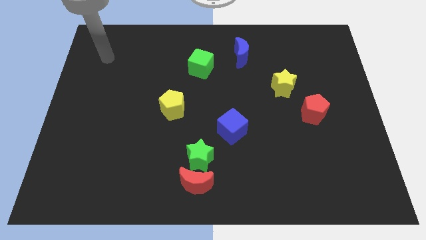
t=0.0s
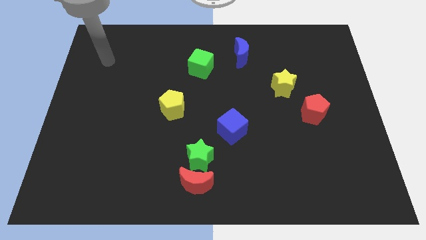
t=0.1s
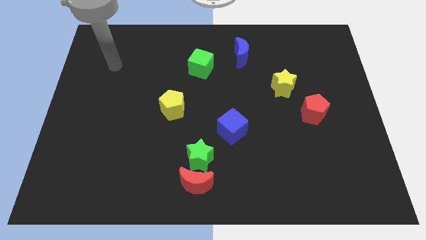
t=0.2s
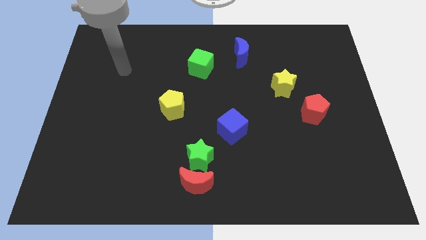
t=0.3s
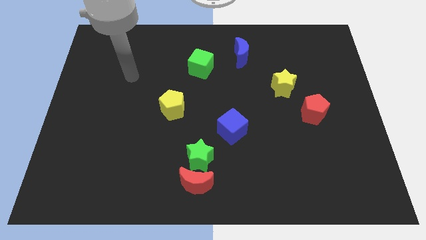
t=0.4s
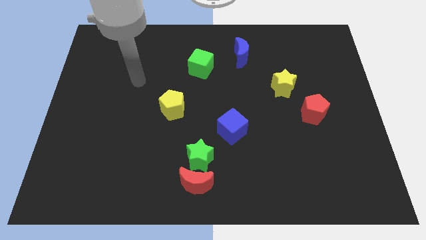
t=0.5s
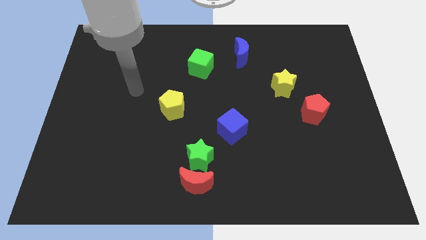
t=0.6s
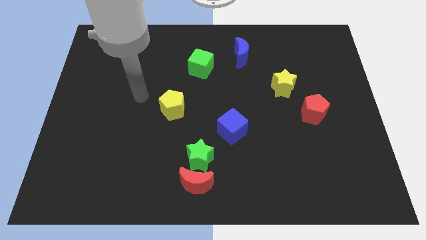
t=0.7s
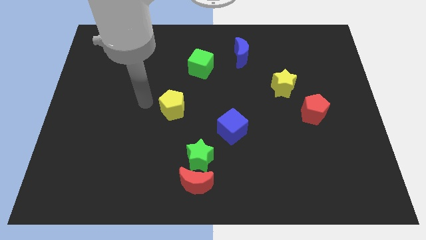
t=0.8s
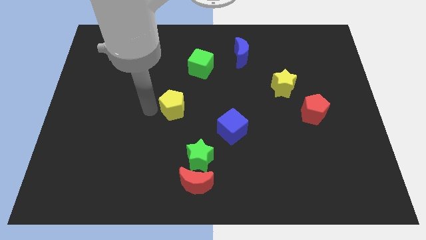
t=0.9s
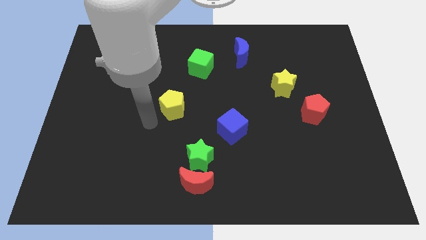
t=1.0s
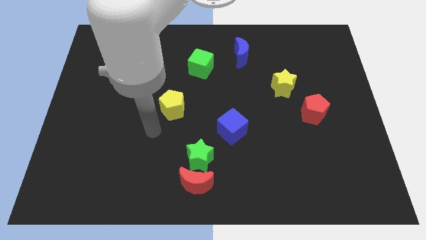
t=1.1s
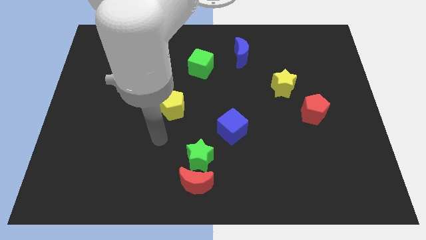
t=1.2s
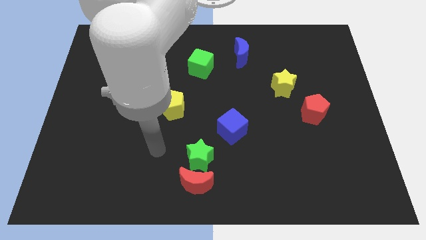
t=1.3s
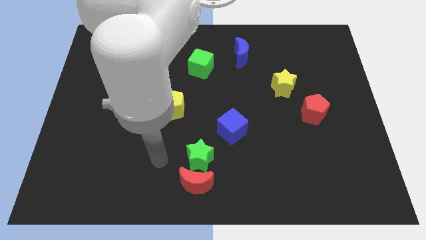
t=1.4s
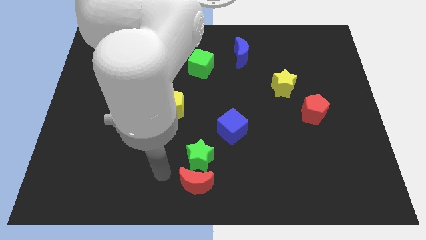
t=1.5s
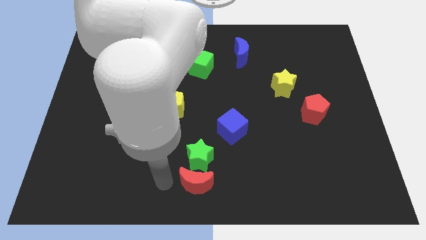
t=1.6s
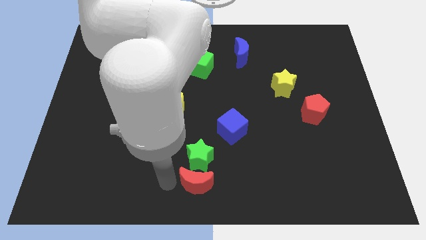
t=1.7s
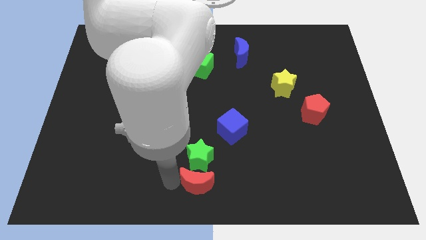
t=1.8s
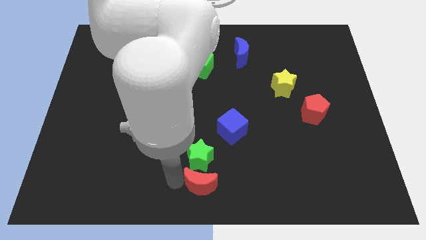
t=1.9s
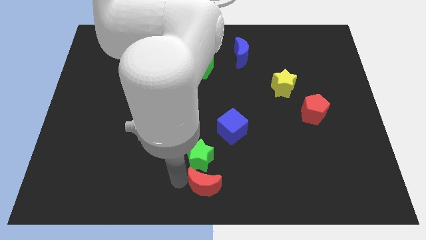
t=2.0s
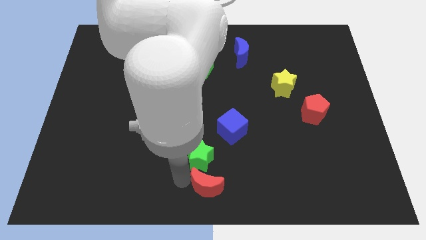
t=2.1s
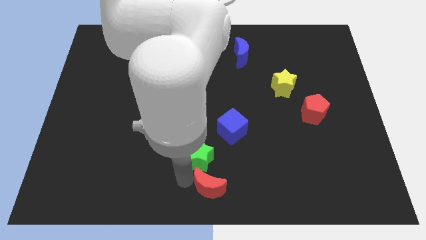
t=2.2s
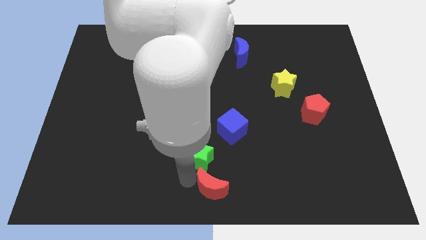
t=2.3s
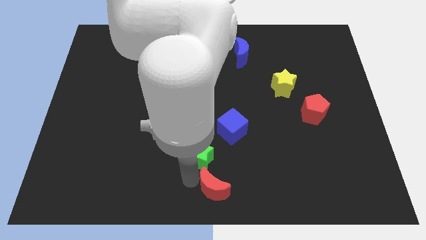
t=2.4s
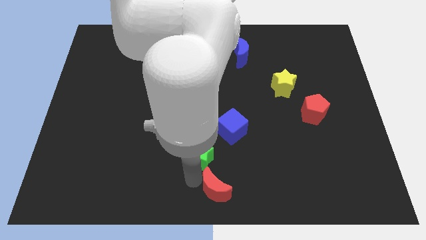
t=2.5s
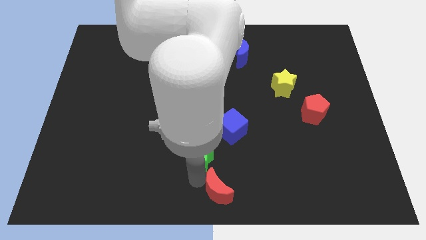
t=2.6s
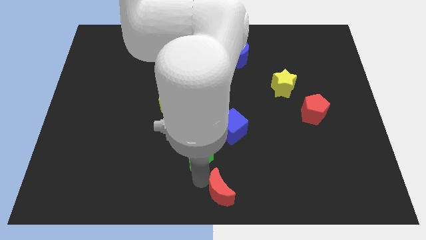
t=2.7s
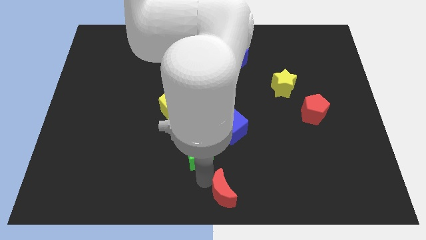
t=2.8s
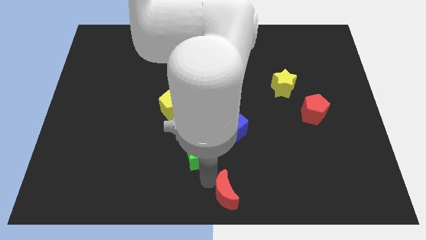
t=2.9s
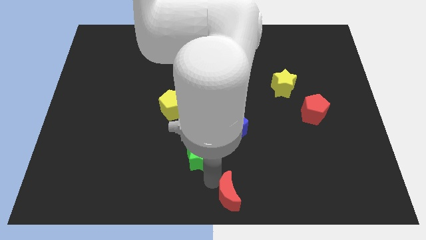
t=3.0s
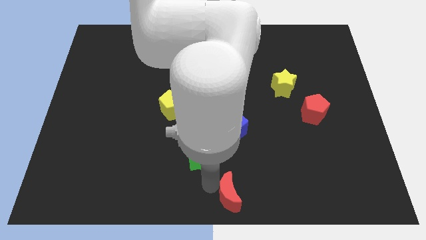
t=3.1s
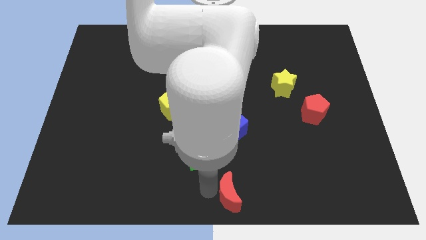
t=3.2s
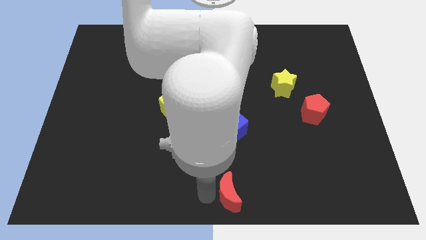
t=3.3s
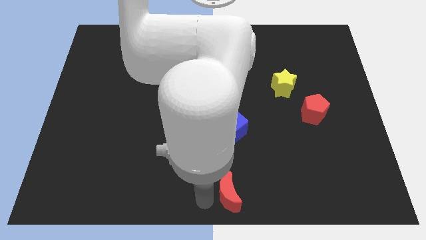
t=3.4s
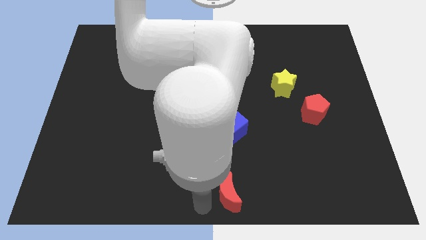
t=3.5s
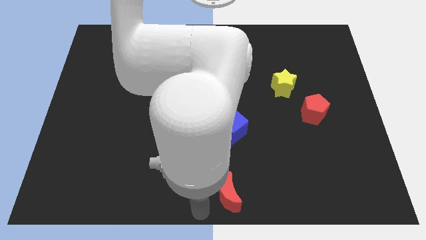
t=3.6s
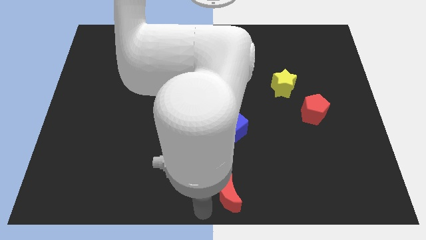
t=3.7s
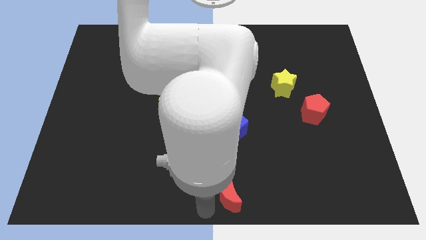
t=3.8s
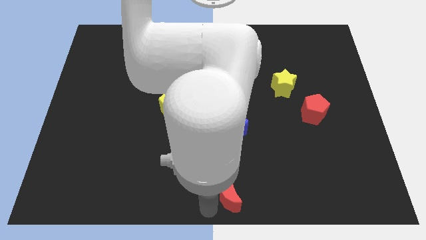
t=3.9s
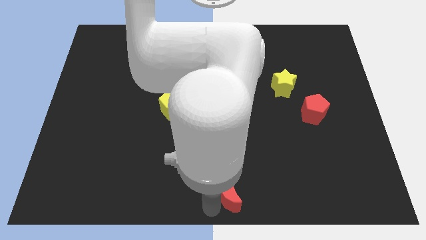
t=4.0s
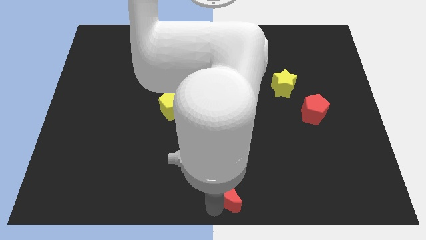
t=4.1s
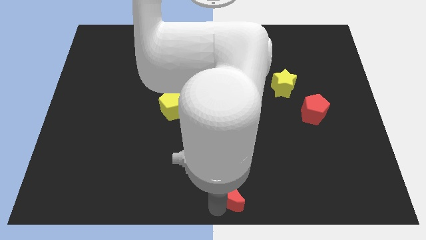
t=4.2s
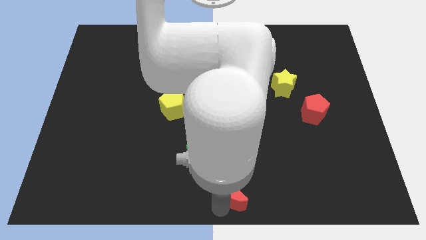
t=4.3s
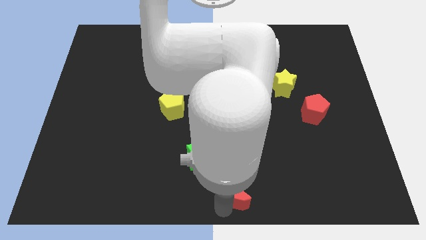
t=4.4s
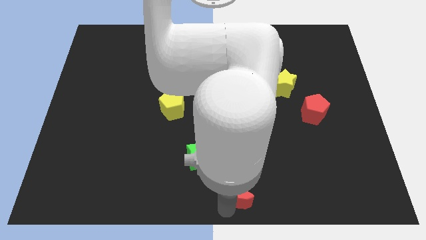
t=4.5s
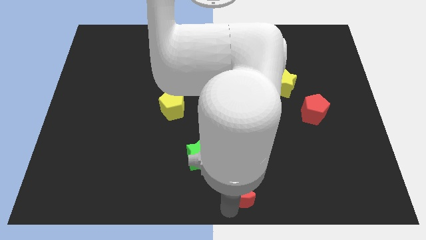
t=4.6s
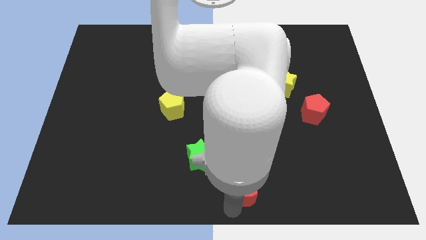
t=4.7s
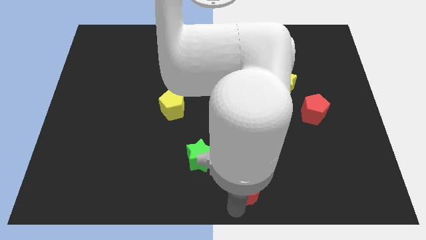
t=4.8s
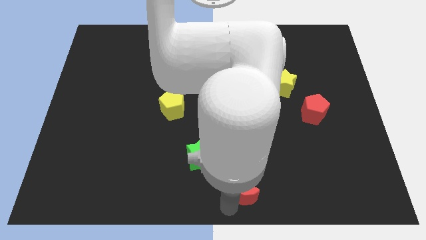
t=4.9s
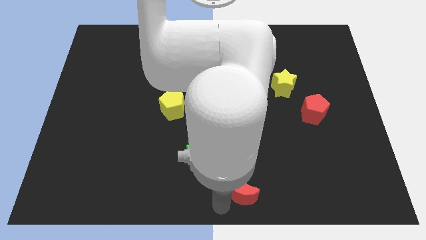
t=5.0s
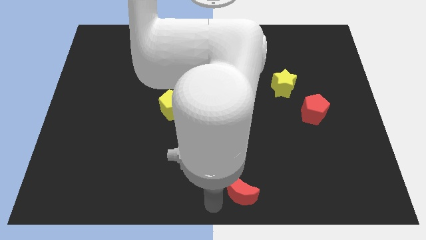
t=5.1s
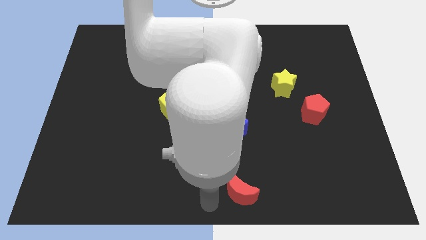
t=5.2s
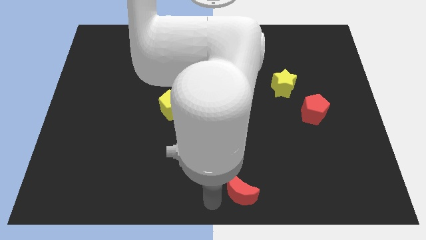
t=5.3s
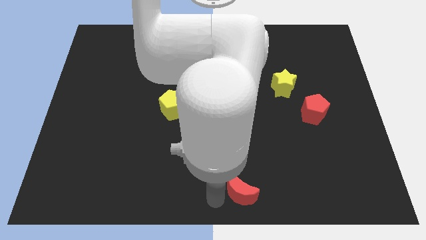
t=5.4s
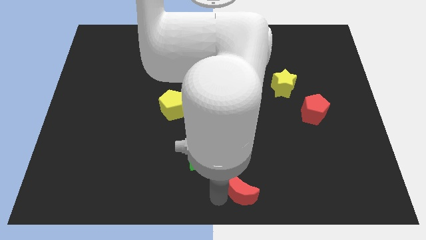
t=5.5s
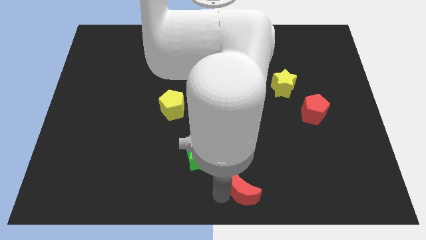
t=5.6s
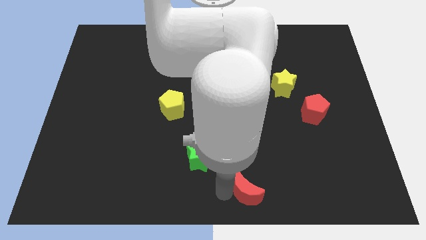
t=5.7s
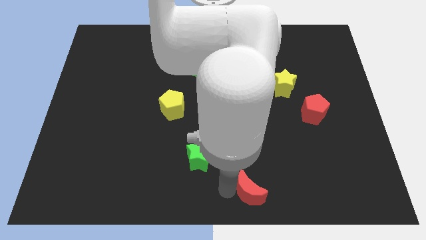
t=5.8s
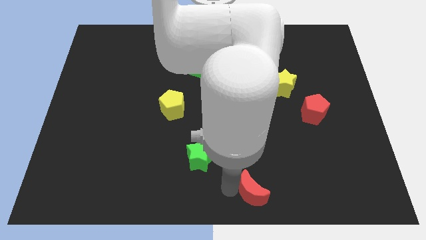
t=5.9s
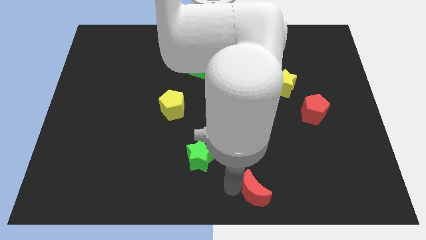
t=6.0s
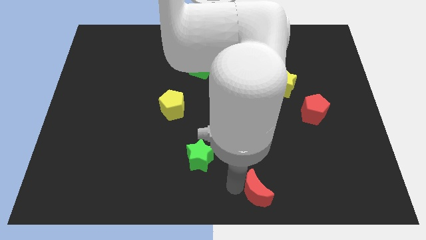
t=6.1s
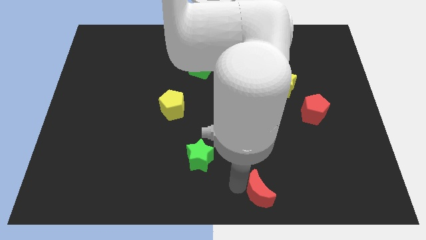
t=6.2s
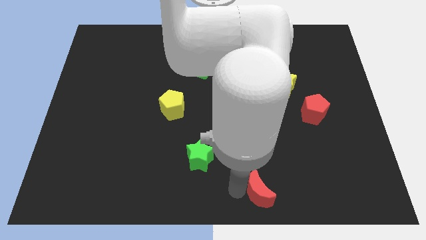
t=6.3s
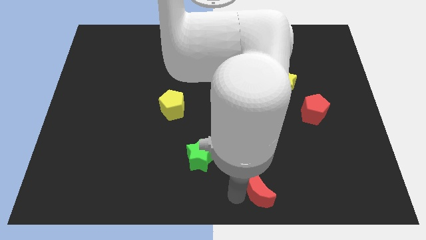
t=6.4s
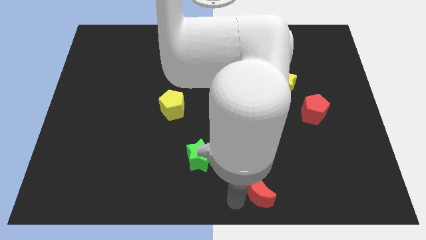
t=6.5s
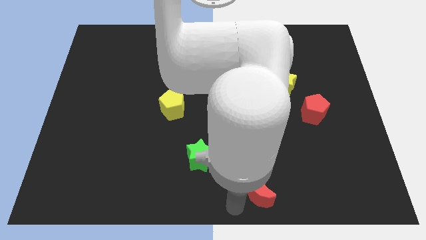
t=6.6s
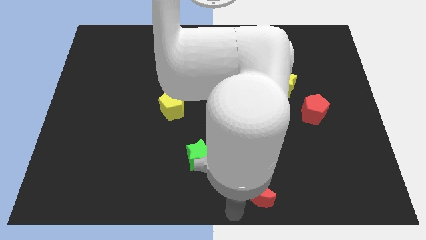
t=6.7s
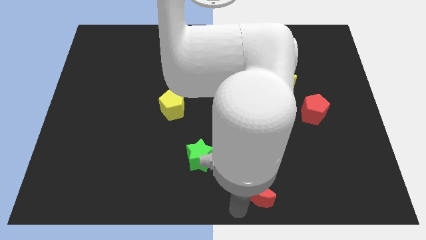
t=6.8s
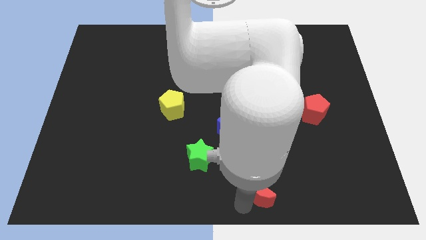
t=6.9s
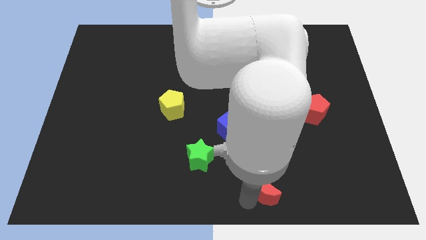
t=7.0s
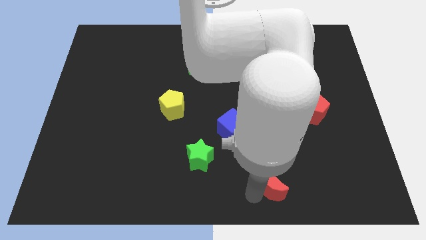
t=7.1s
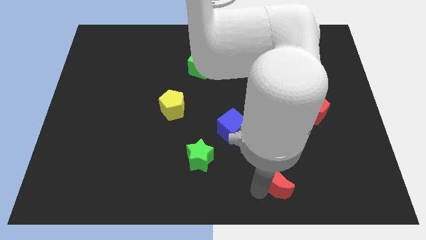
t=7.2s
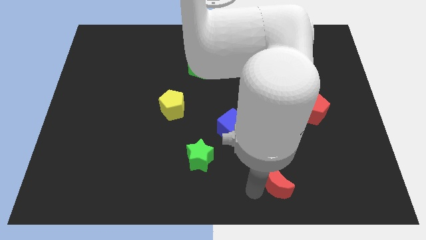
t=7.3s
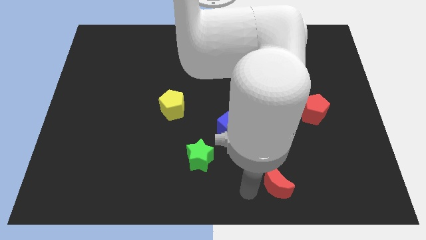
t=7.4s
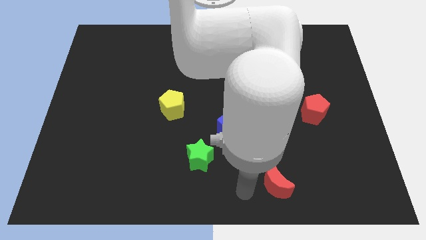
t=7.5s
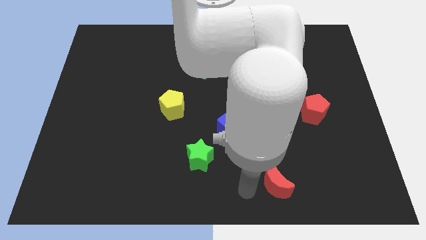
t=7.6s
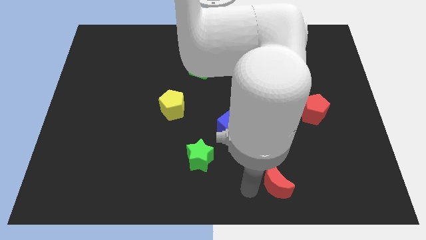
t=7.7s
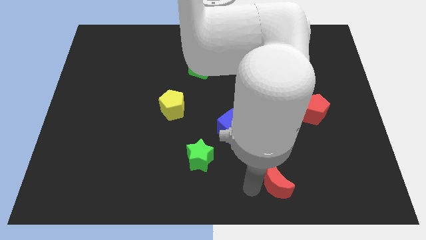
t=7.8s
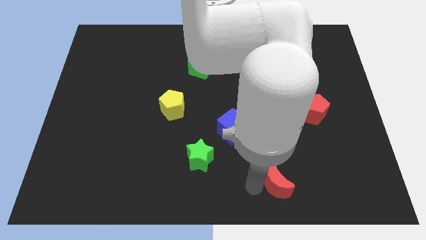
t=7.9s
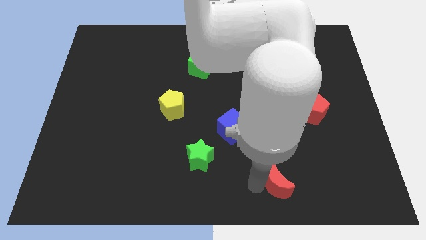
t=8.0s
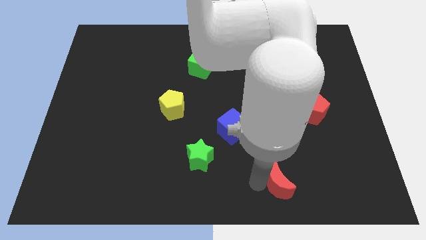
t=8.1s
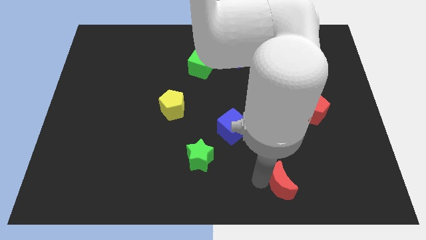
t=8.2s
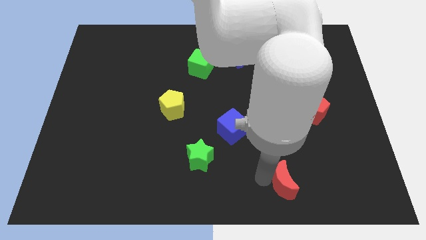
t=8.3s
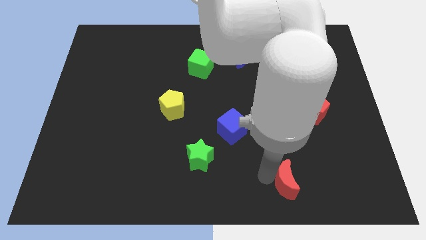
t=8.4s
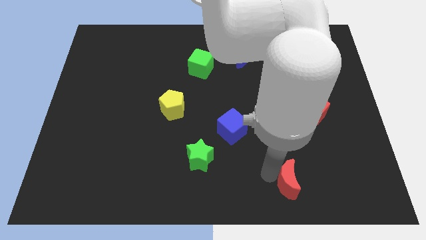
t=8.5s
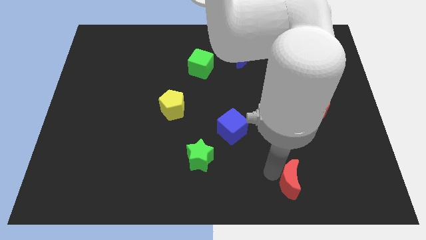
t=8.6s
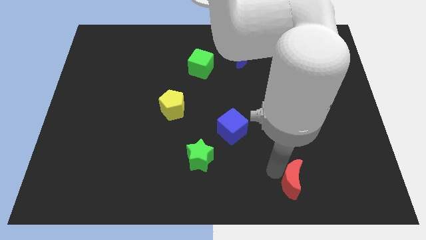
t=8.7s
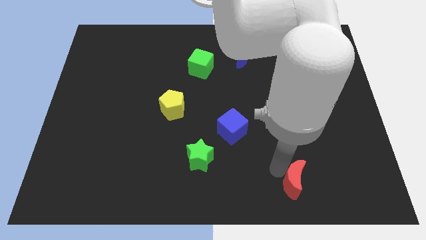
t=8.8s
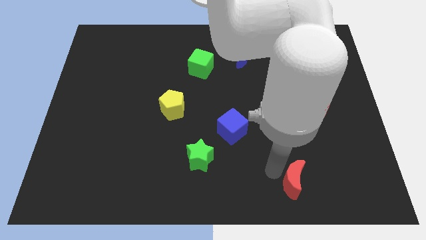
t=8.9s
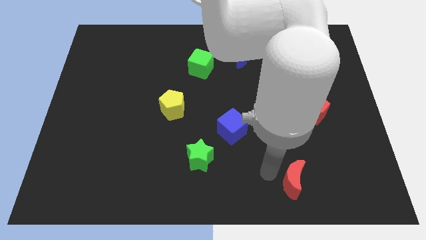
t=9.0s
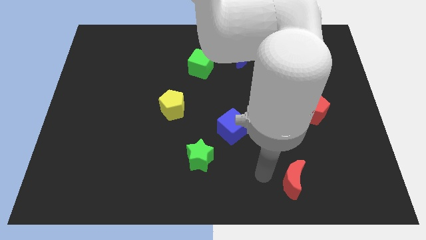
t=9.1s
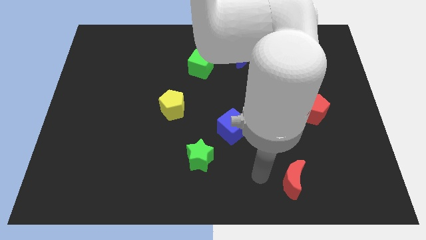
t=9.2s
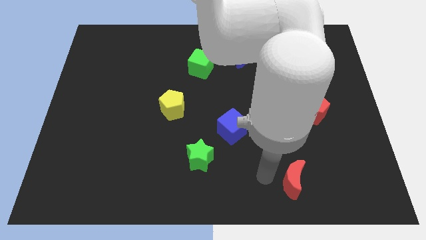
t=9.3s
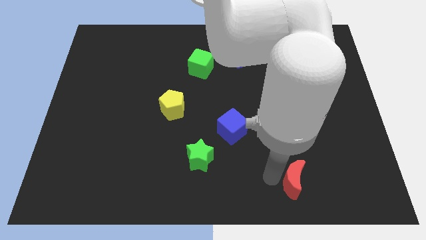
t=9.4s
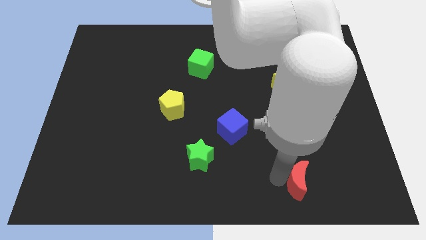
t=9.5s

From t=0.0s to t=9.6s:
push the red moon right
